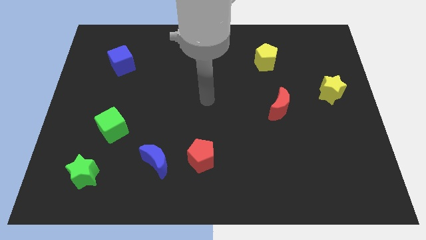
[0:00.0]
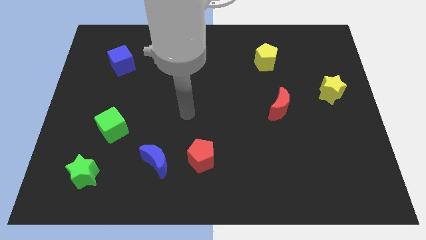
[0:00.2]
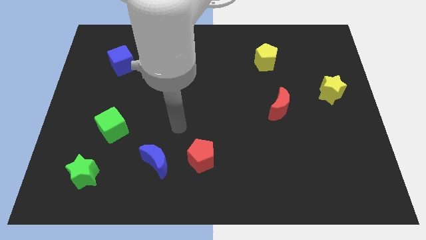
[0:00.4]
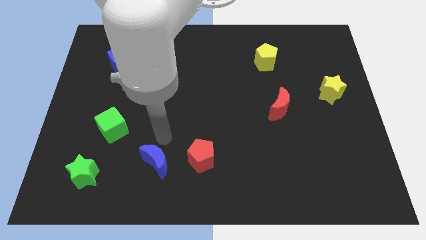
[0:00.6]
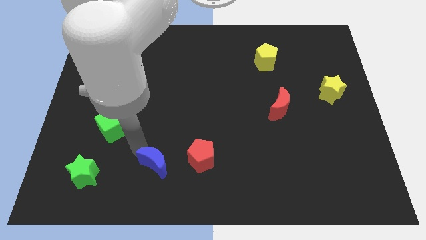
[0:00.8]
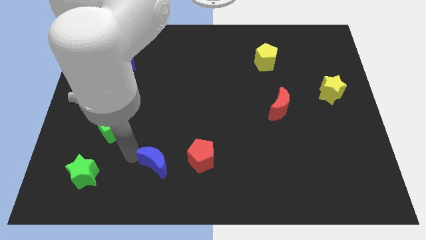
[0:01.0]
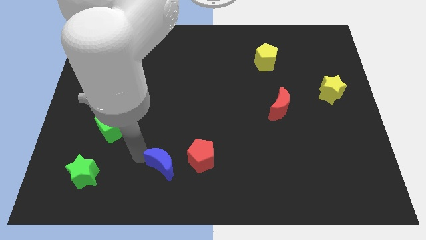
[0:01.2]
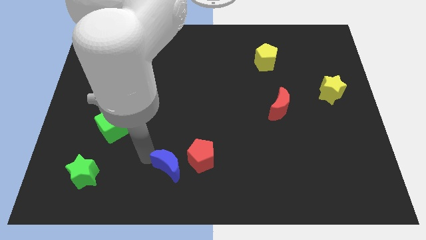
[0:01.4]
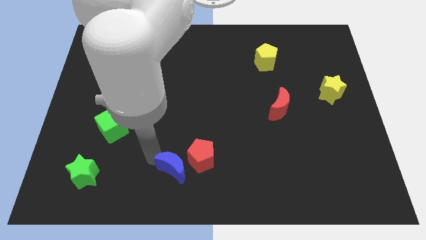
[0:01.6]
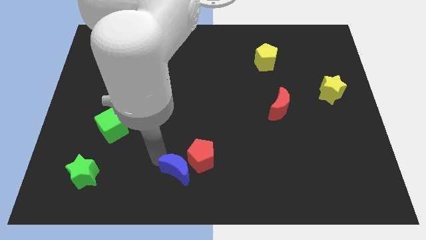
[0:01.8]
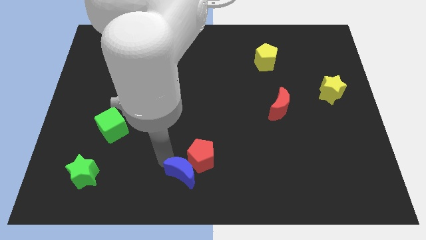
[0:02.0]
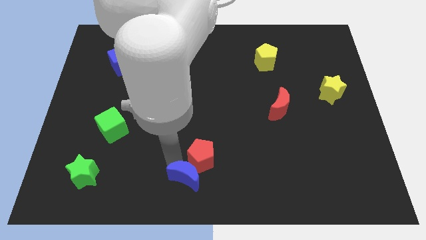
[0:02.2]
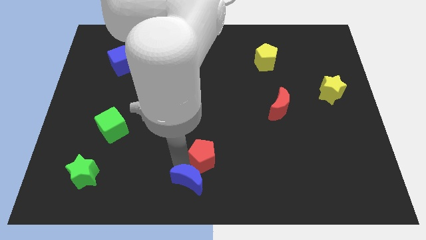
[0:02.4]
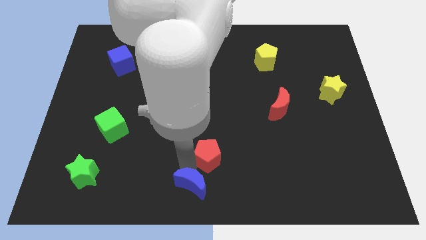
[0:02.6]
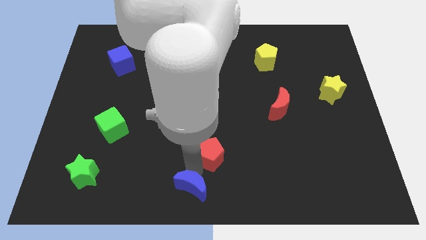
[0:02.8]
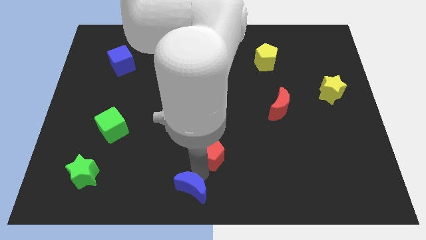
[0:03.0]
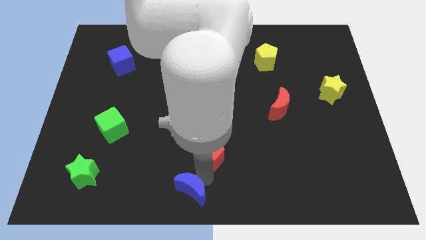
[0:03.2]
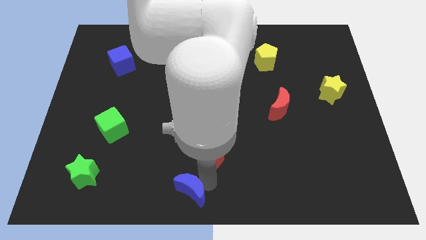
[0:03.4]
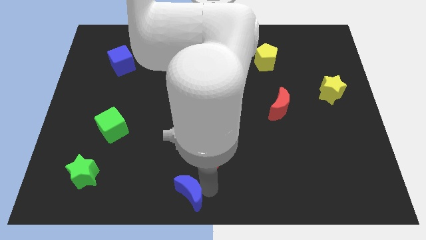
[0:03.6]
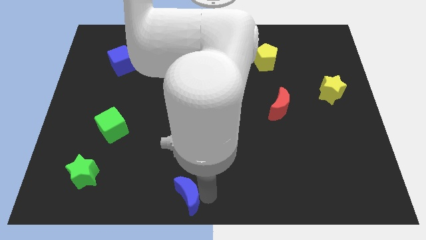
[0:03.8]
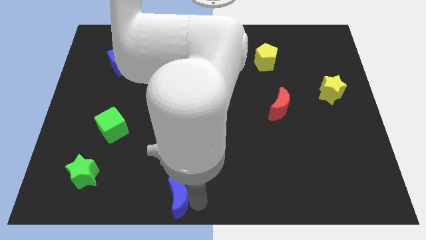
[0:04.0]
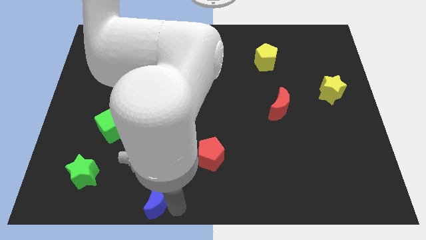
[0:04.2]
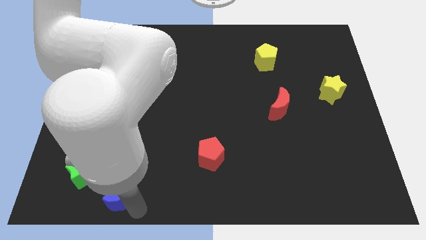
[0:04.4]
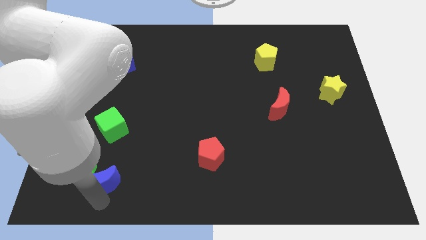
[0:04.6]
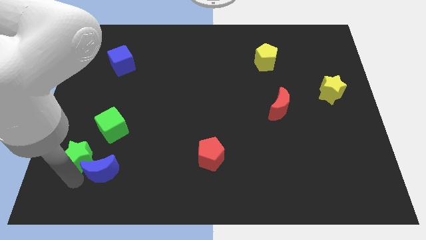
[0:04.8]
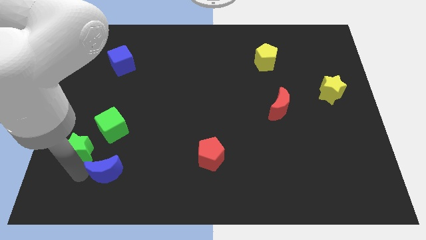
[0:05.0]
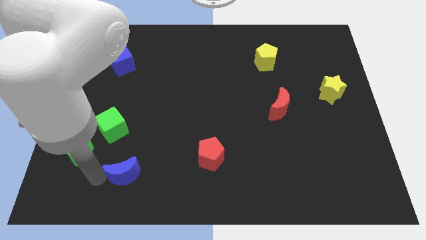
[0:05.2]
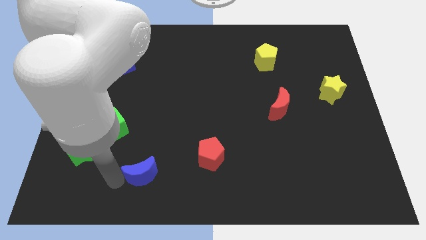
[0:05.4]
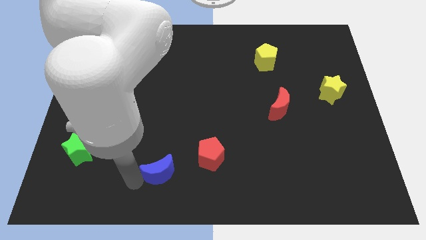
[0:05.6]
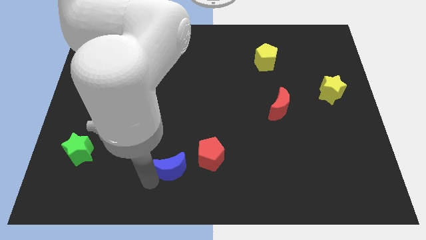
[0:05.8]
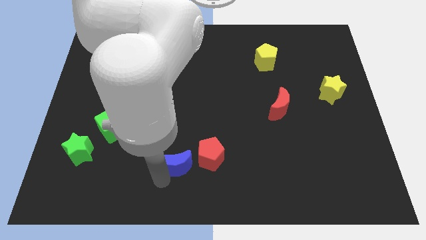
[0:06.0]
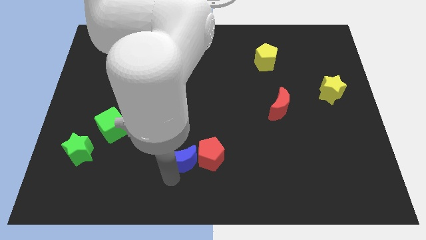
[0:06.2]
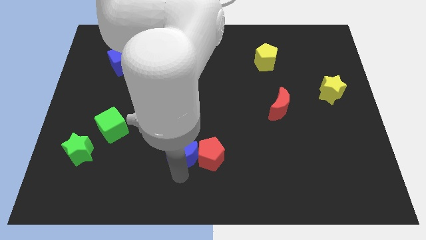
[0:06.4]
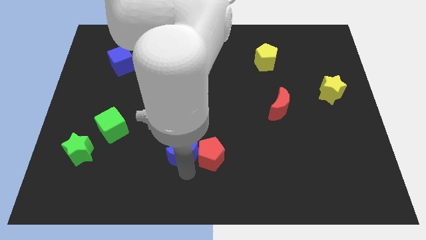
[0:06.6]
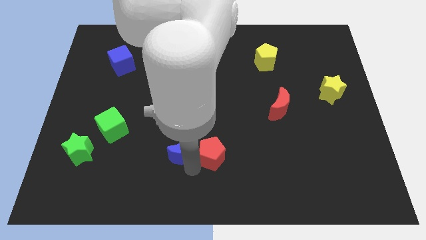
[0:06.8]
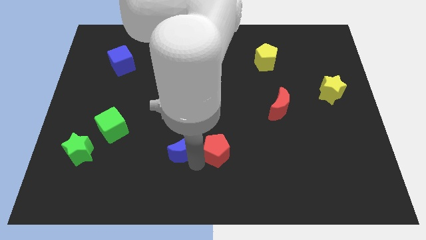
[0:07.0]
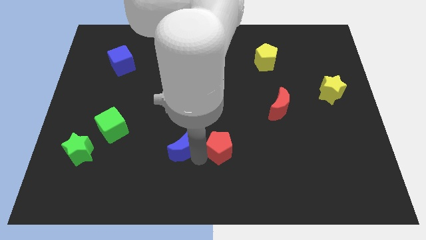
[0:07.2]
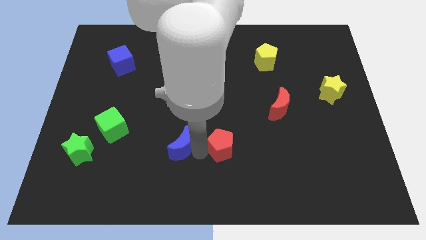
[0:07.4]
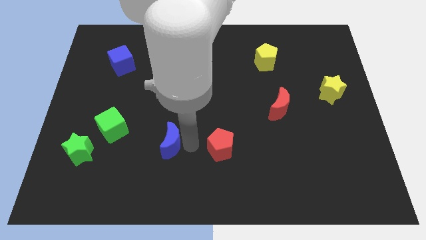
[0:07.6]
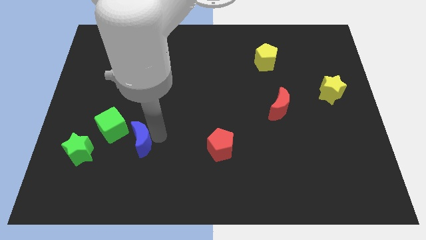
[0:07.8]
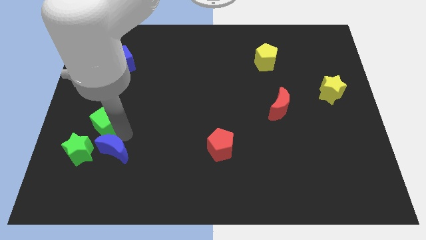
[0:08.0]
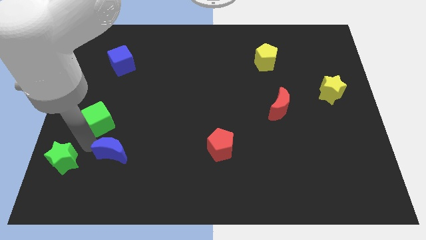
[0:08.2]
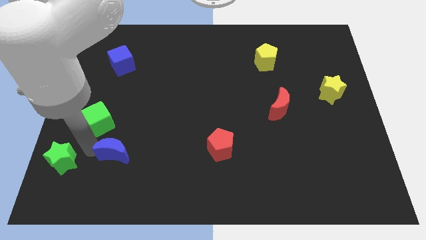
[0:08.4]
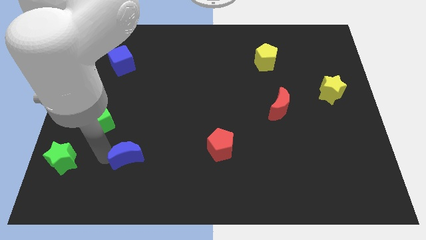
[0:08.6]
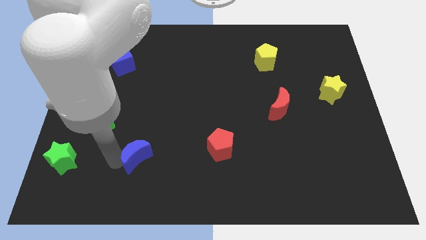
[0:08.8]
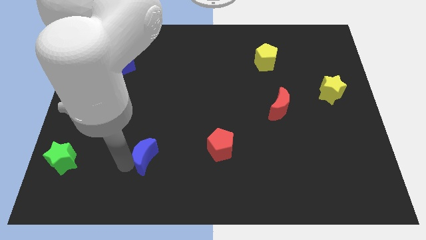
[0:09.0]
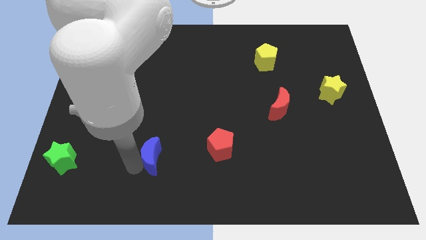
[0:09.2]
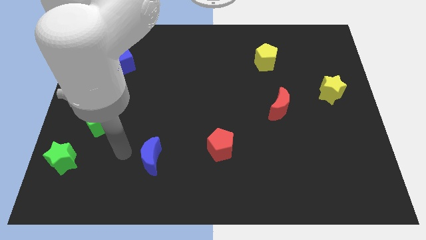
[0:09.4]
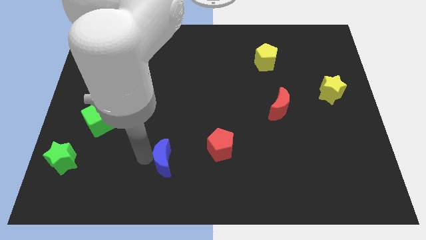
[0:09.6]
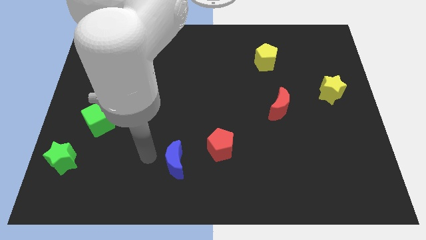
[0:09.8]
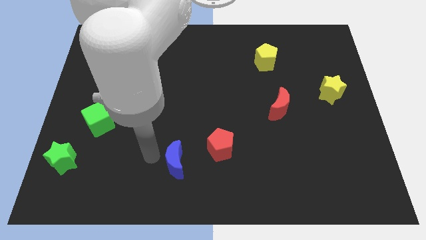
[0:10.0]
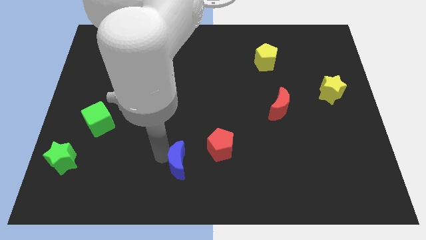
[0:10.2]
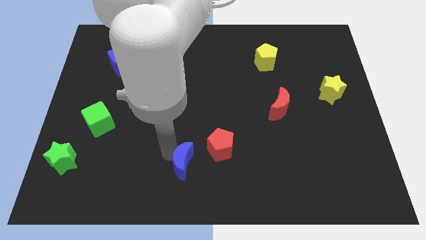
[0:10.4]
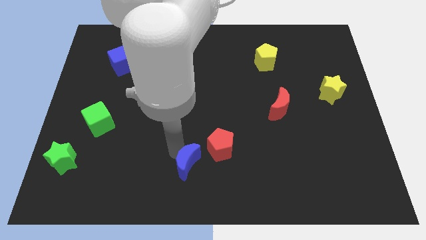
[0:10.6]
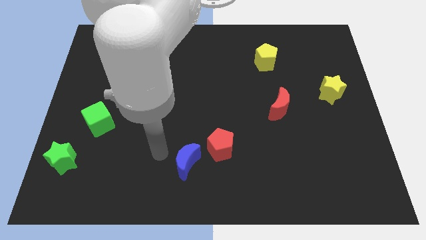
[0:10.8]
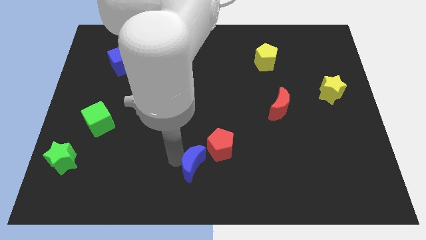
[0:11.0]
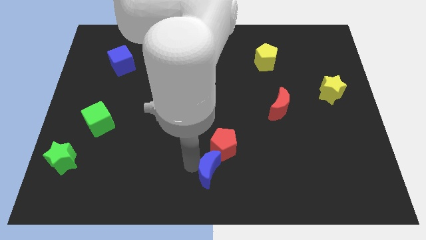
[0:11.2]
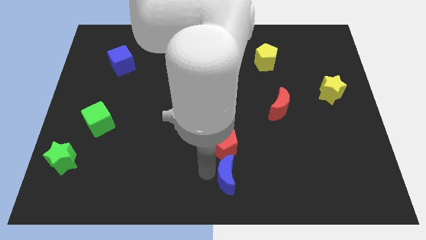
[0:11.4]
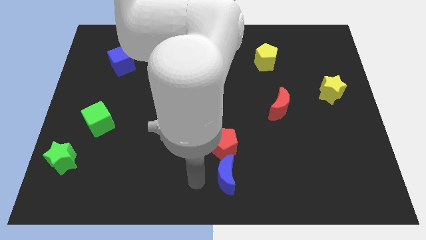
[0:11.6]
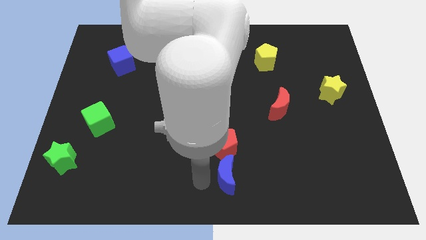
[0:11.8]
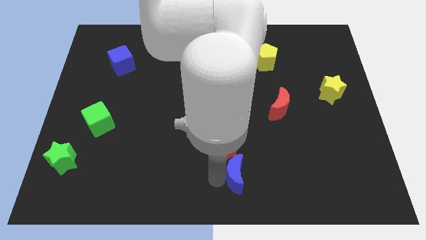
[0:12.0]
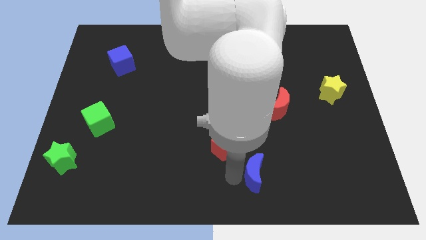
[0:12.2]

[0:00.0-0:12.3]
slide the blue moon right

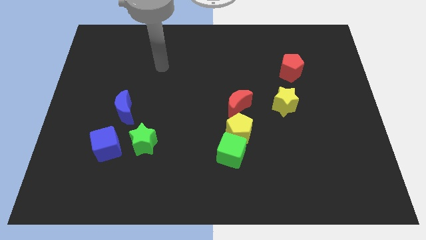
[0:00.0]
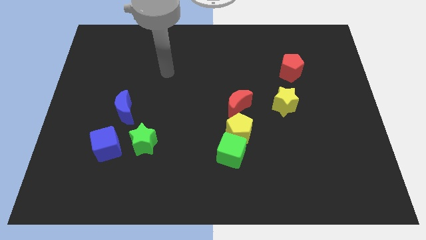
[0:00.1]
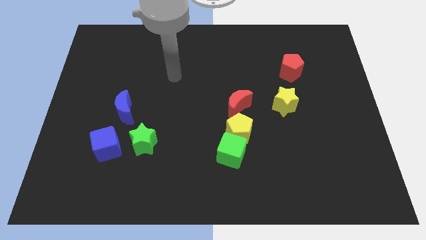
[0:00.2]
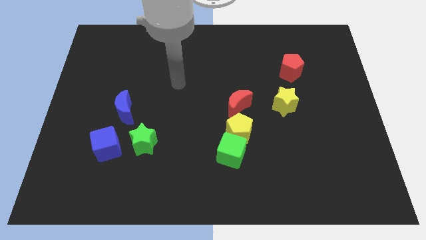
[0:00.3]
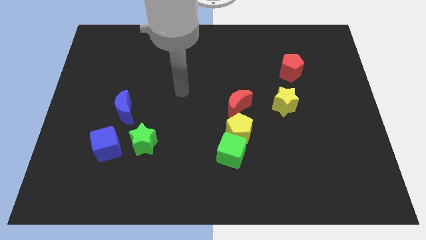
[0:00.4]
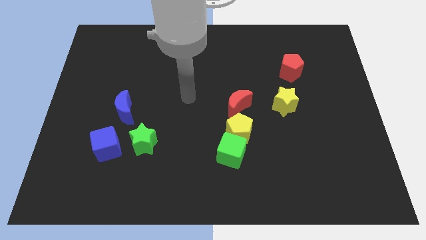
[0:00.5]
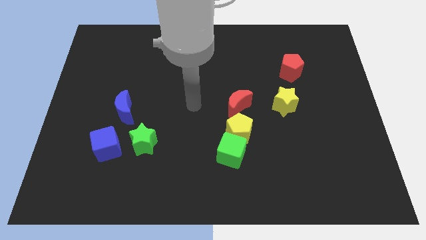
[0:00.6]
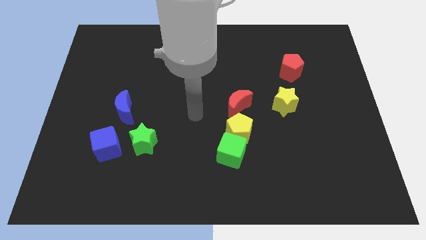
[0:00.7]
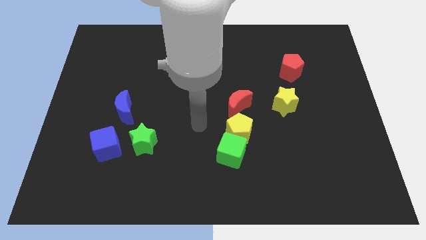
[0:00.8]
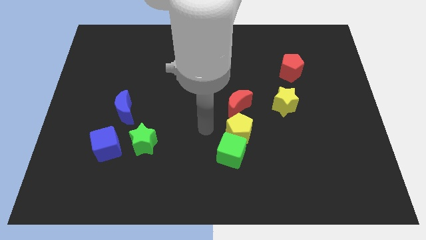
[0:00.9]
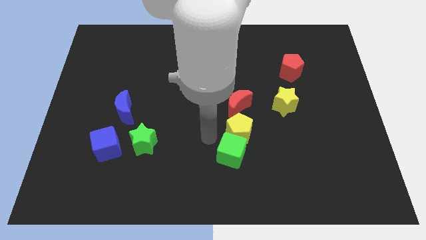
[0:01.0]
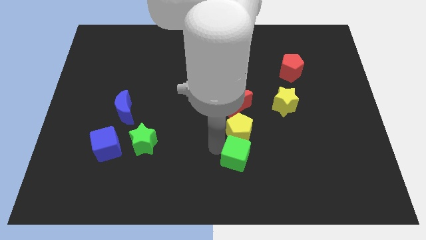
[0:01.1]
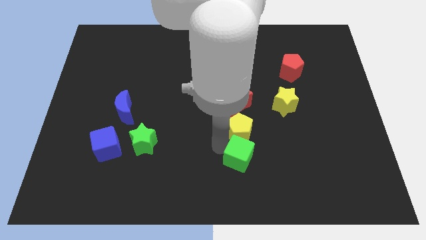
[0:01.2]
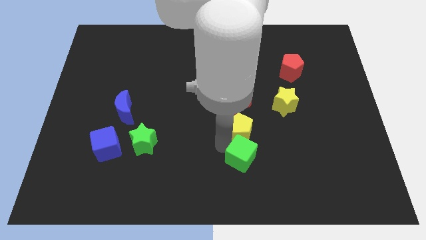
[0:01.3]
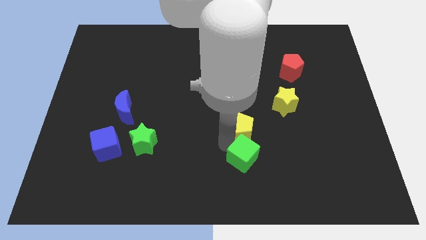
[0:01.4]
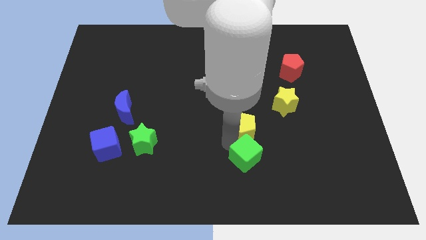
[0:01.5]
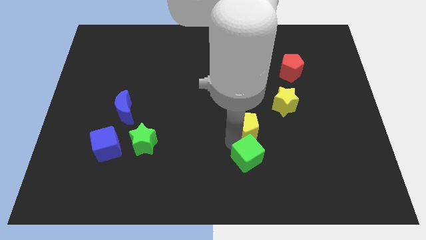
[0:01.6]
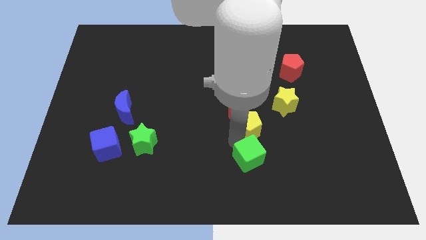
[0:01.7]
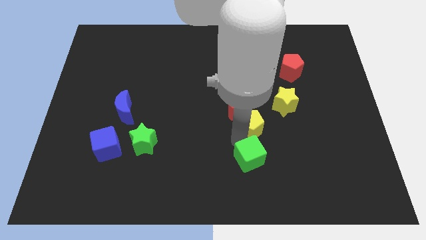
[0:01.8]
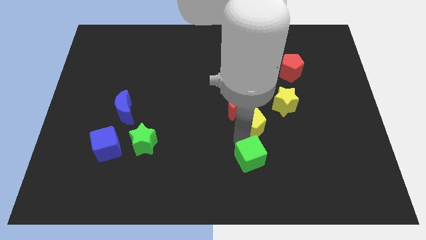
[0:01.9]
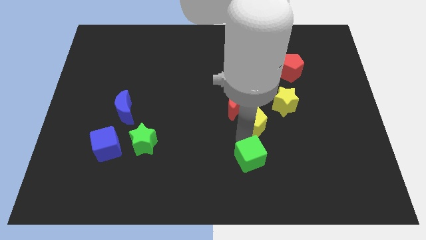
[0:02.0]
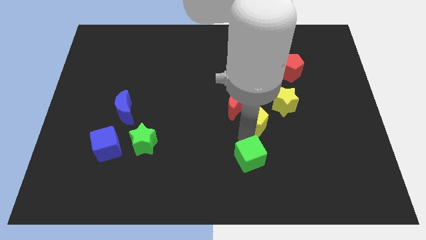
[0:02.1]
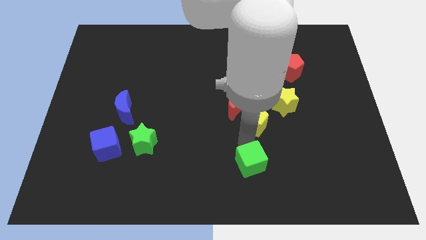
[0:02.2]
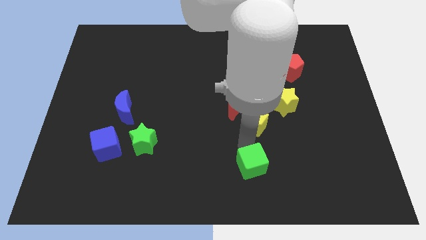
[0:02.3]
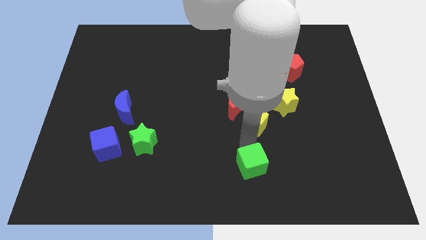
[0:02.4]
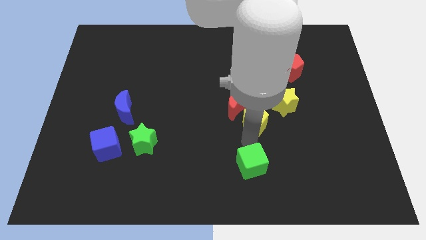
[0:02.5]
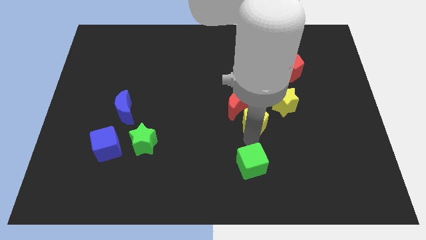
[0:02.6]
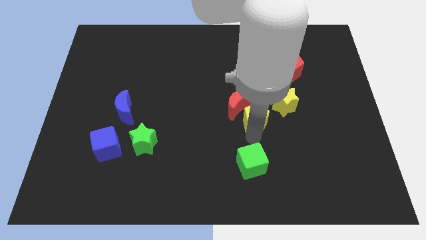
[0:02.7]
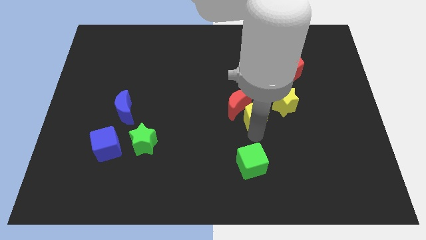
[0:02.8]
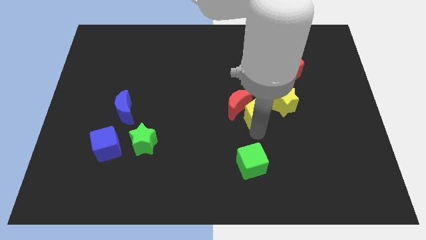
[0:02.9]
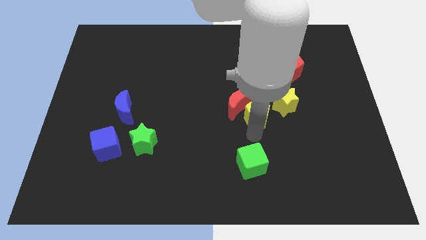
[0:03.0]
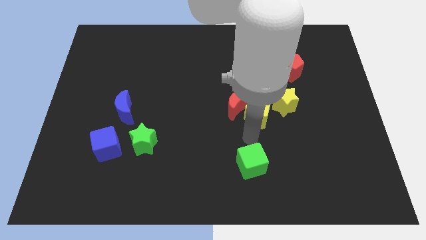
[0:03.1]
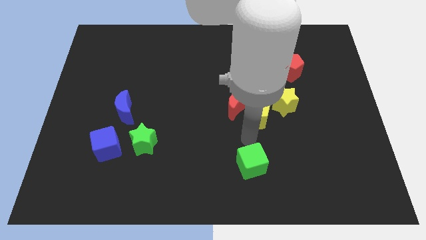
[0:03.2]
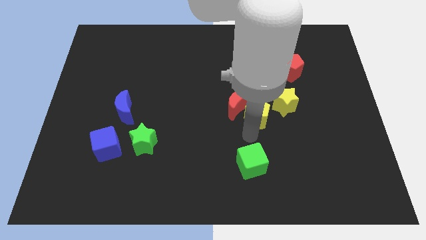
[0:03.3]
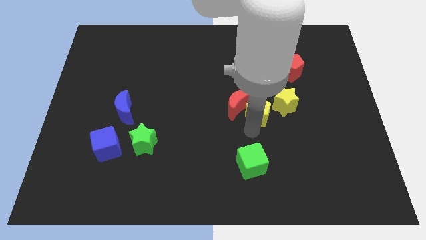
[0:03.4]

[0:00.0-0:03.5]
slide the yellow pentagon a little up and then right
